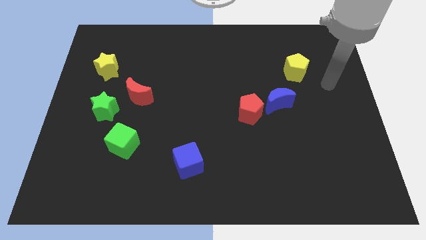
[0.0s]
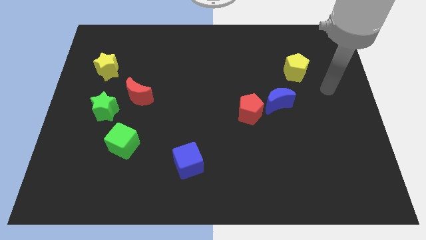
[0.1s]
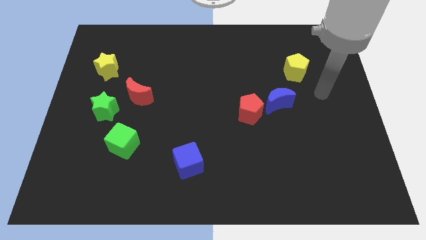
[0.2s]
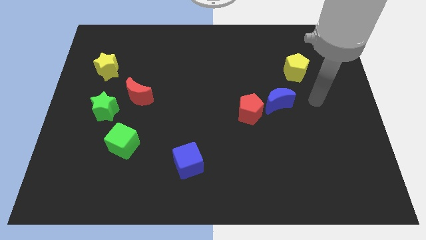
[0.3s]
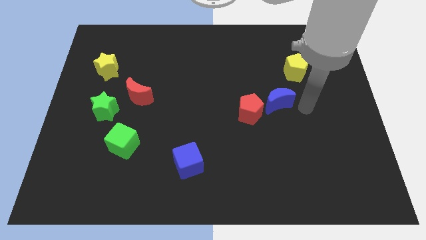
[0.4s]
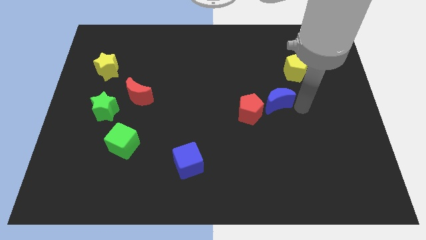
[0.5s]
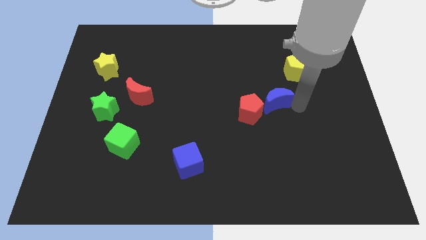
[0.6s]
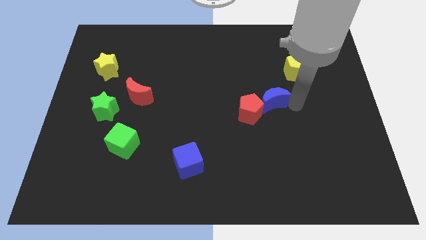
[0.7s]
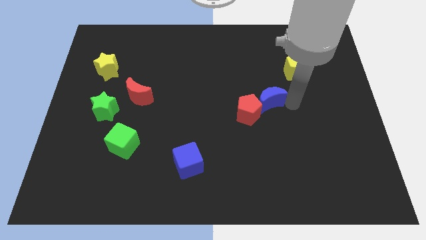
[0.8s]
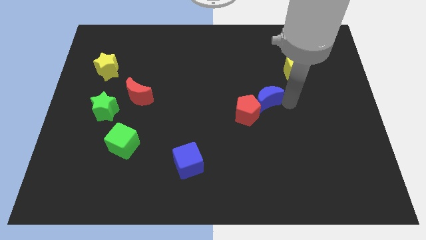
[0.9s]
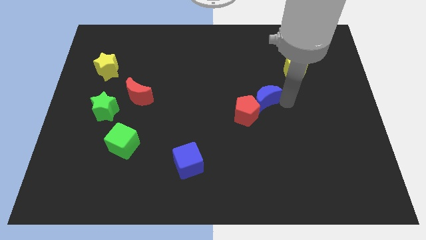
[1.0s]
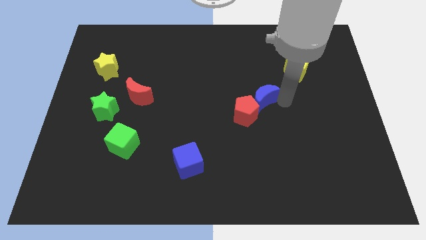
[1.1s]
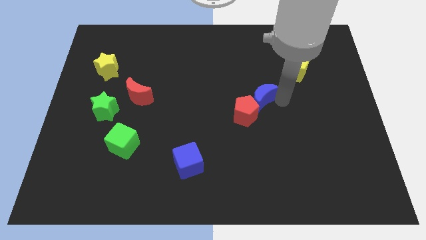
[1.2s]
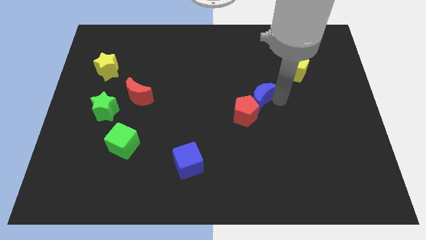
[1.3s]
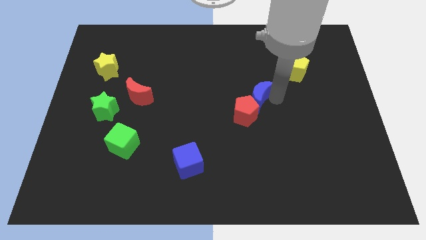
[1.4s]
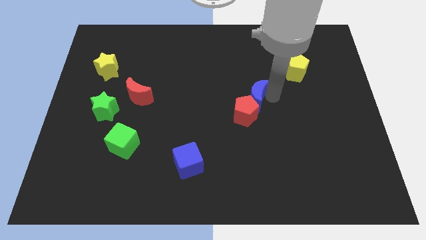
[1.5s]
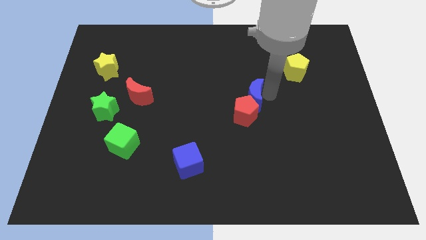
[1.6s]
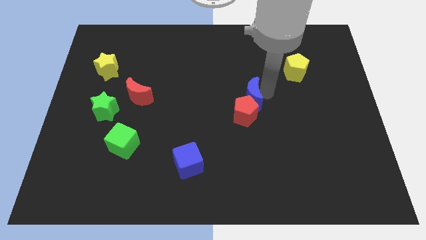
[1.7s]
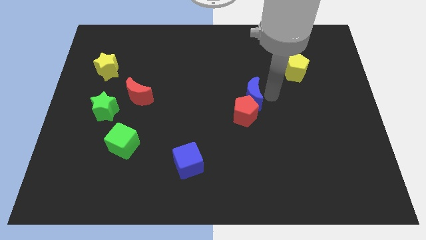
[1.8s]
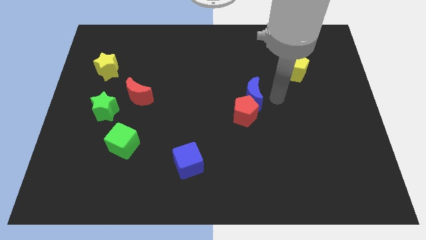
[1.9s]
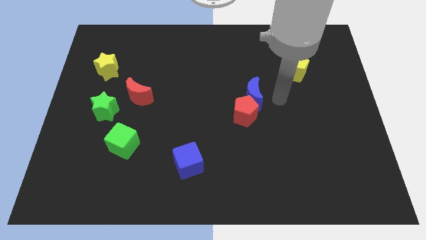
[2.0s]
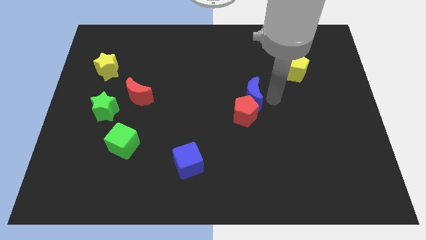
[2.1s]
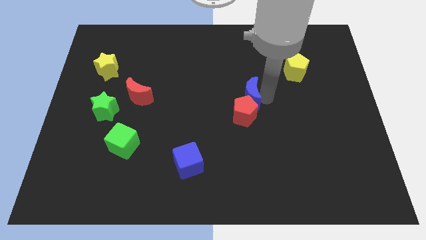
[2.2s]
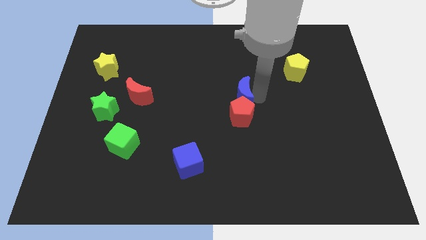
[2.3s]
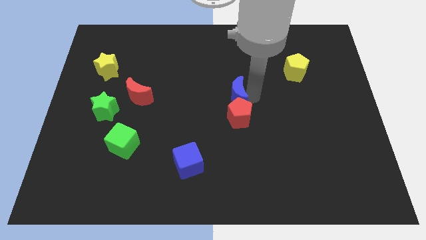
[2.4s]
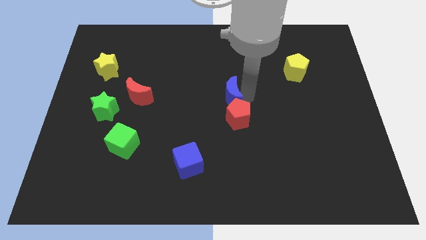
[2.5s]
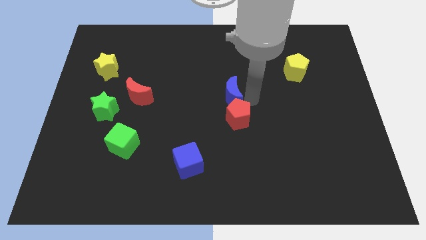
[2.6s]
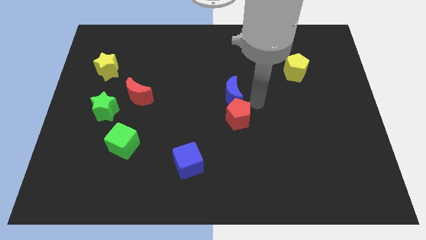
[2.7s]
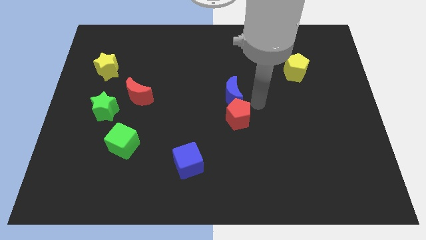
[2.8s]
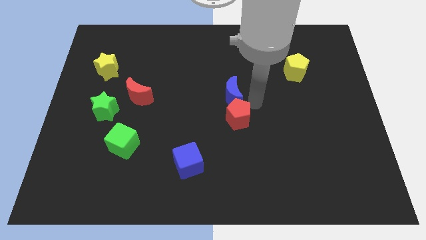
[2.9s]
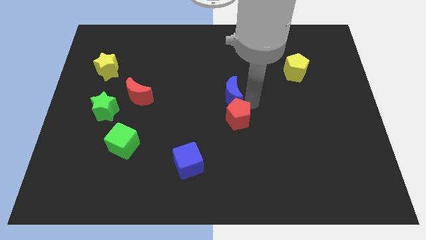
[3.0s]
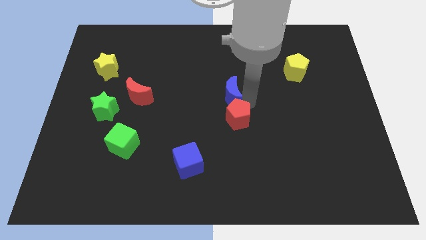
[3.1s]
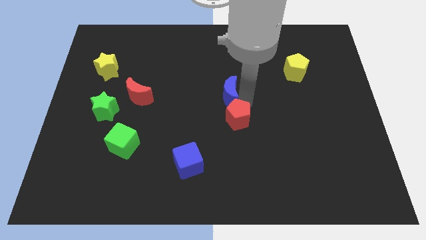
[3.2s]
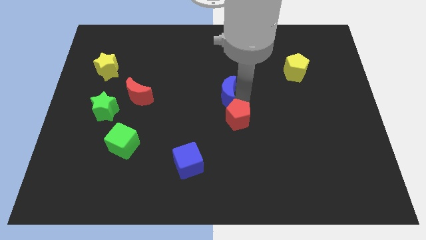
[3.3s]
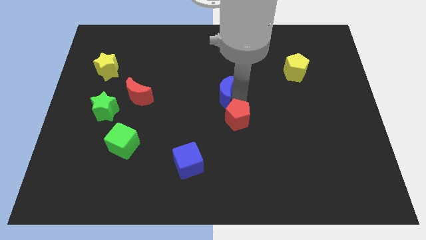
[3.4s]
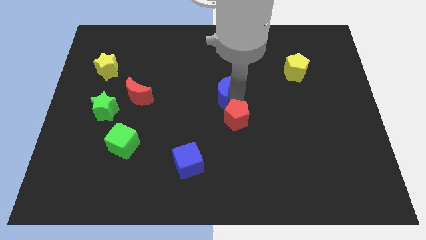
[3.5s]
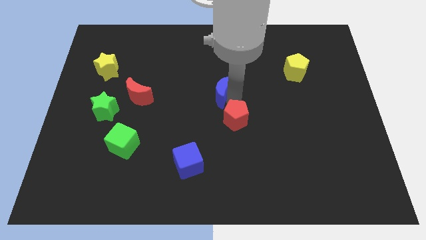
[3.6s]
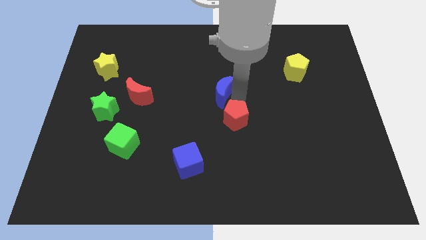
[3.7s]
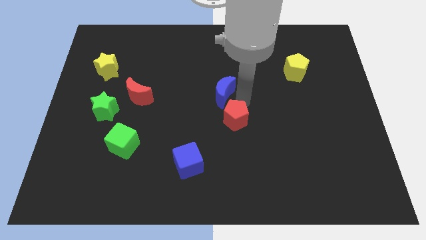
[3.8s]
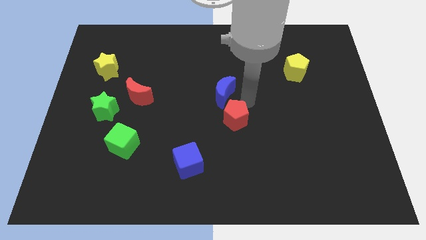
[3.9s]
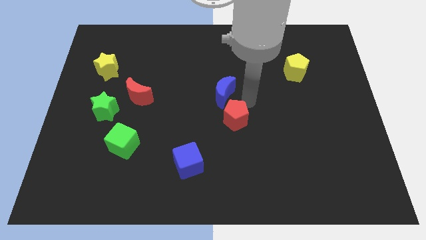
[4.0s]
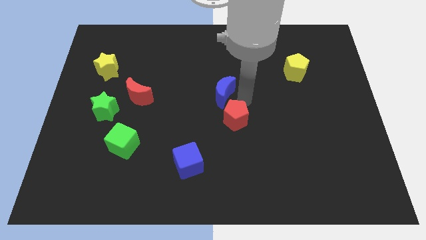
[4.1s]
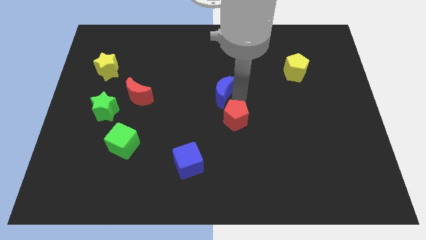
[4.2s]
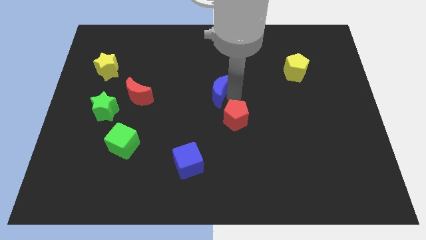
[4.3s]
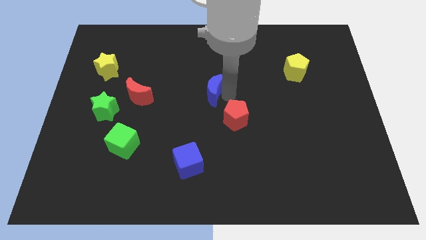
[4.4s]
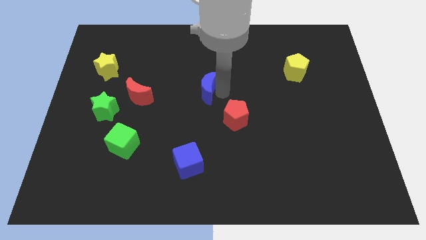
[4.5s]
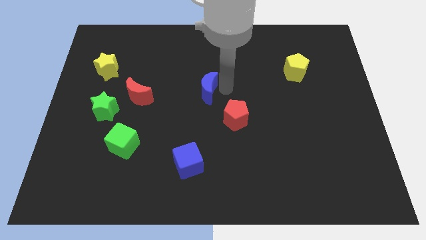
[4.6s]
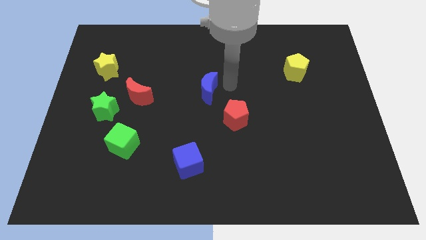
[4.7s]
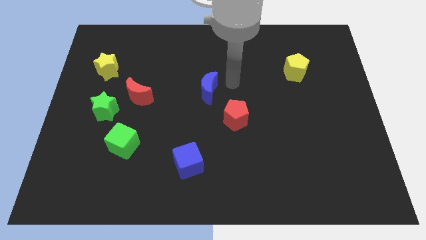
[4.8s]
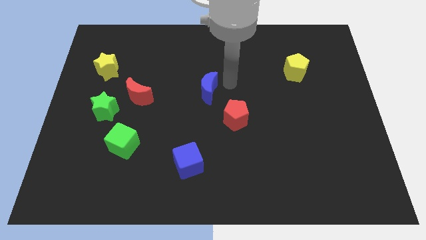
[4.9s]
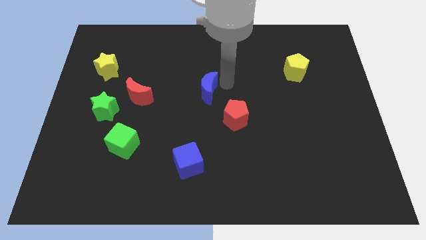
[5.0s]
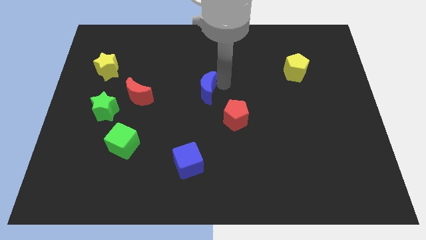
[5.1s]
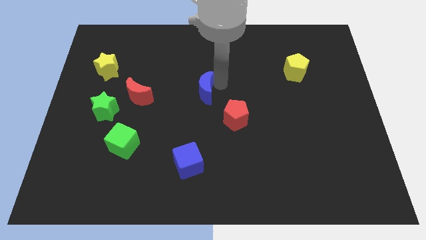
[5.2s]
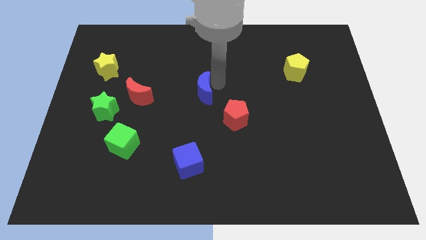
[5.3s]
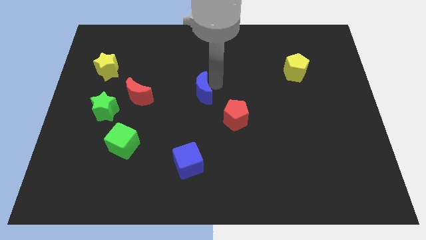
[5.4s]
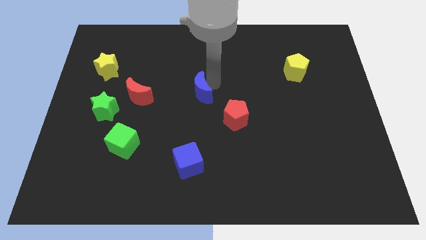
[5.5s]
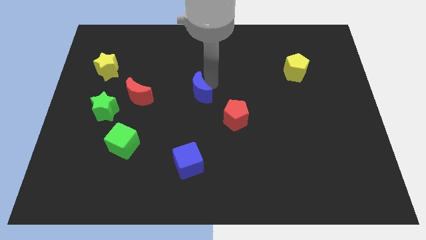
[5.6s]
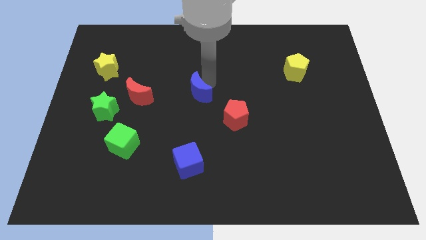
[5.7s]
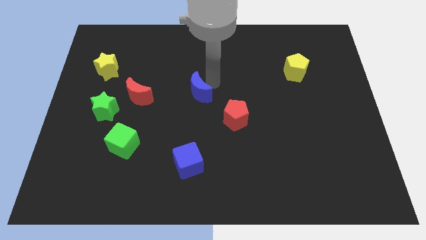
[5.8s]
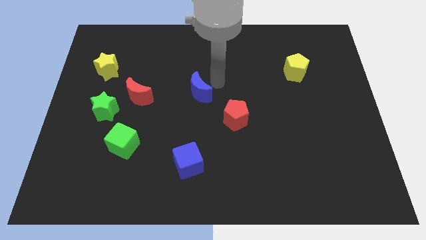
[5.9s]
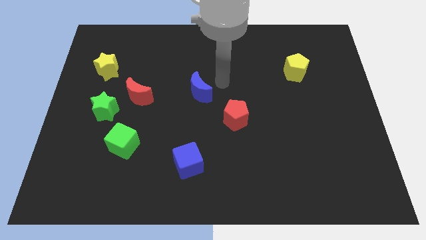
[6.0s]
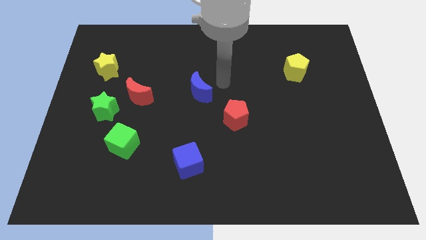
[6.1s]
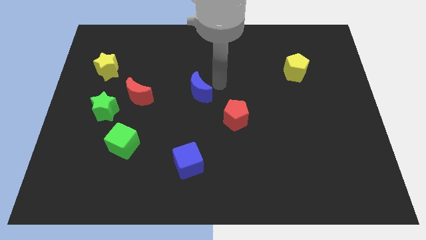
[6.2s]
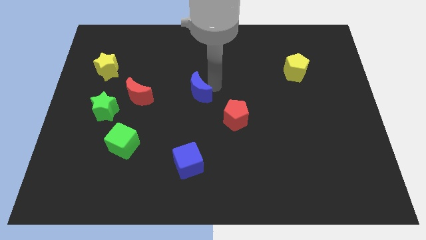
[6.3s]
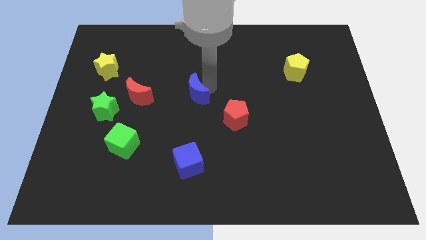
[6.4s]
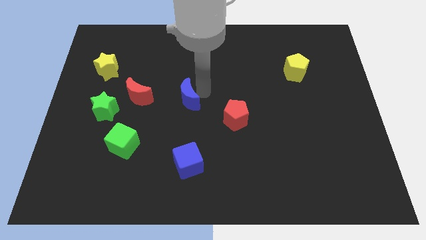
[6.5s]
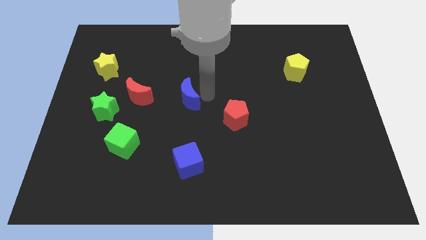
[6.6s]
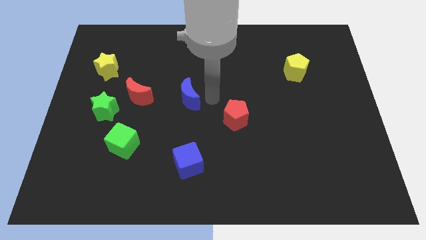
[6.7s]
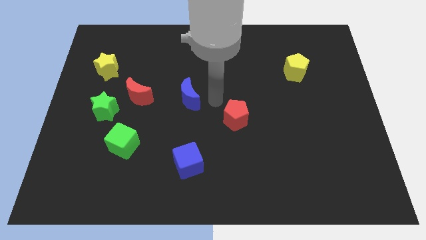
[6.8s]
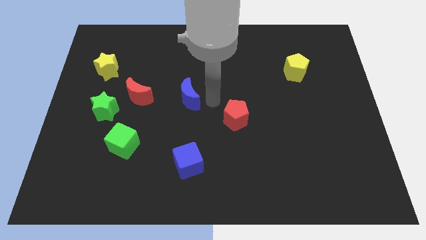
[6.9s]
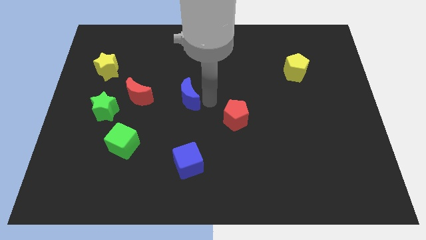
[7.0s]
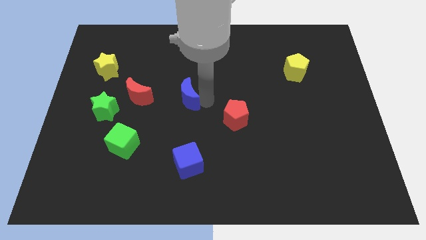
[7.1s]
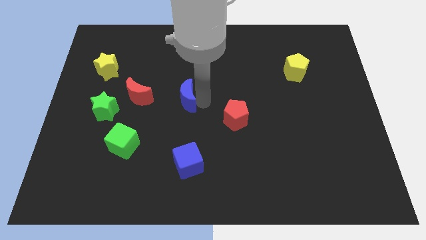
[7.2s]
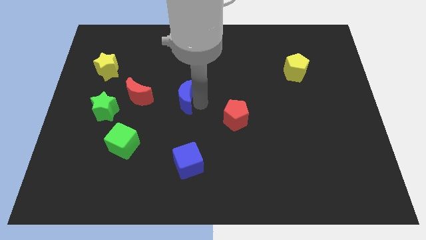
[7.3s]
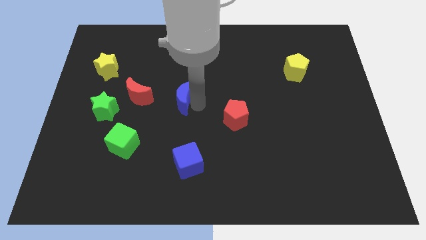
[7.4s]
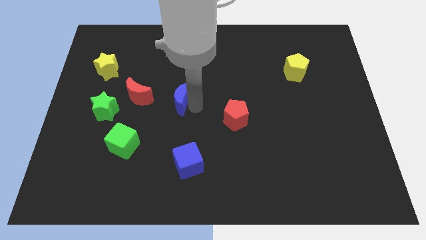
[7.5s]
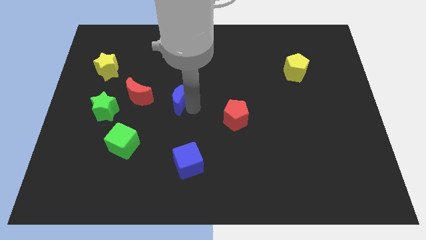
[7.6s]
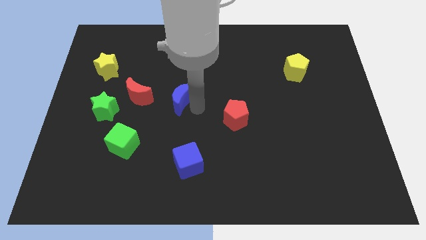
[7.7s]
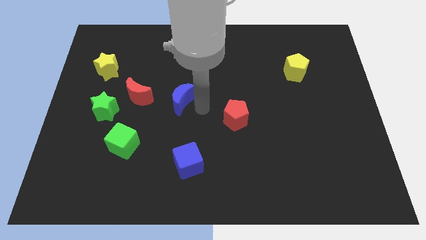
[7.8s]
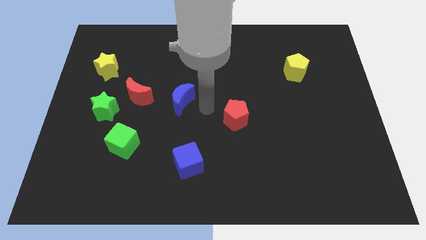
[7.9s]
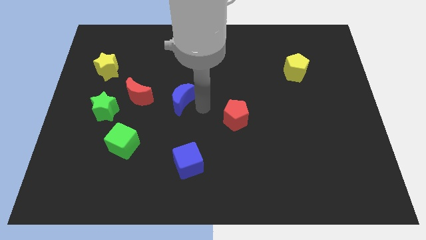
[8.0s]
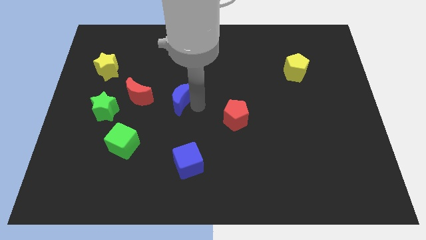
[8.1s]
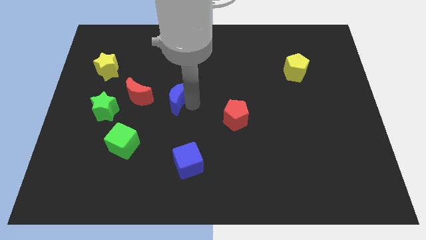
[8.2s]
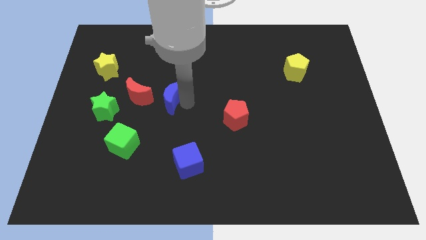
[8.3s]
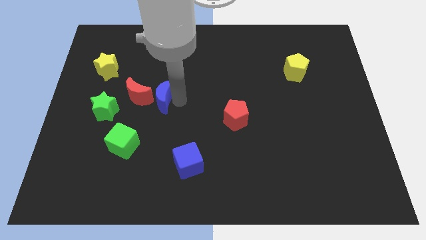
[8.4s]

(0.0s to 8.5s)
slide the blue moon towards the red moon
